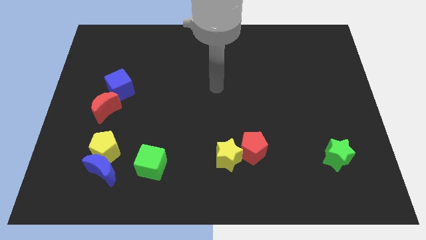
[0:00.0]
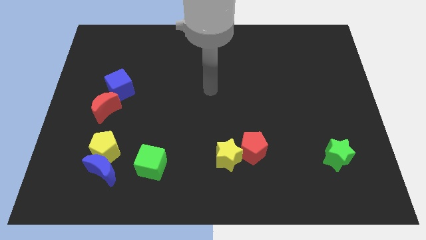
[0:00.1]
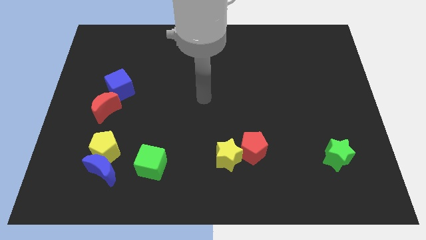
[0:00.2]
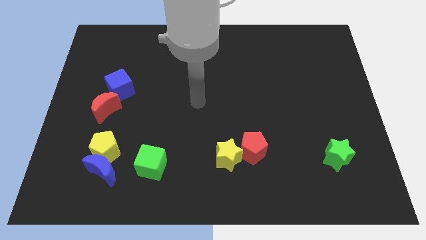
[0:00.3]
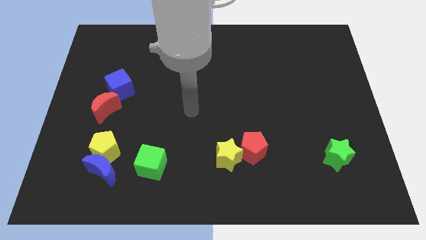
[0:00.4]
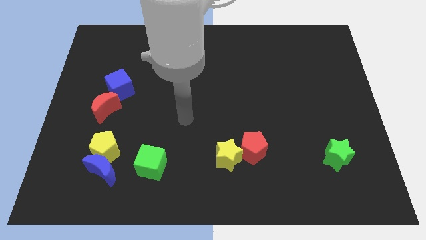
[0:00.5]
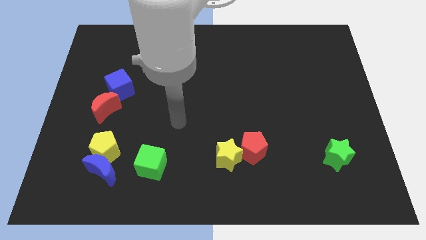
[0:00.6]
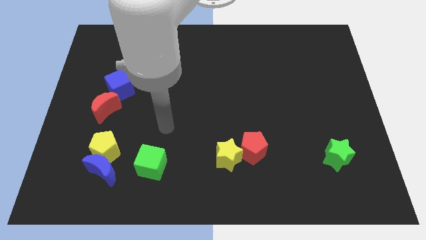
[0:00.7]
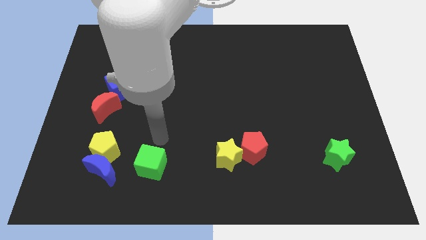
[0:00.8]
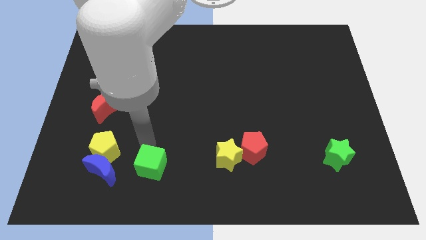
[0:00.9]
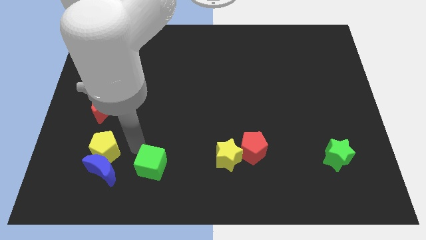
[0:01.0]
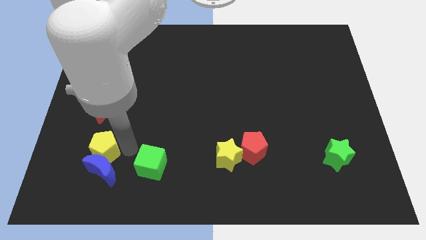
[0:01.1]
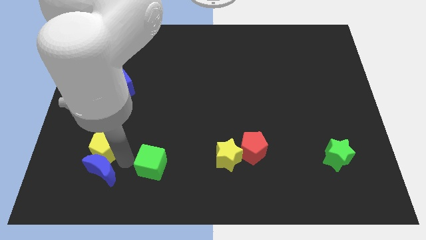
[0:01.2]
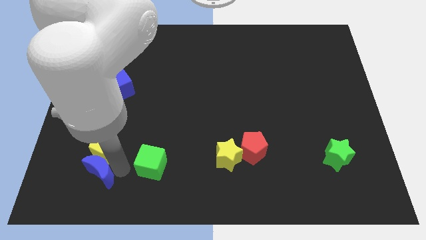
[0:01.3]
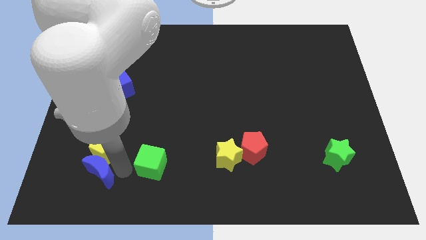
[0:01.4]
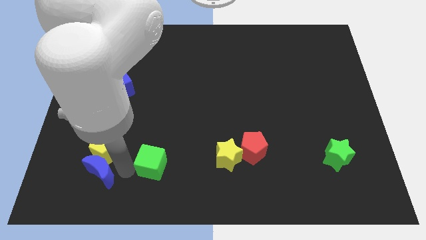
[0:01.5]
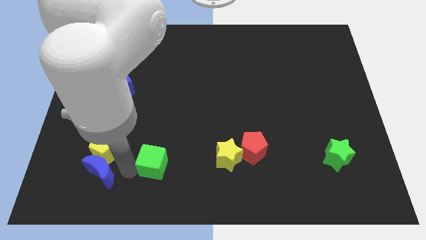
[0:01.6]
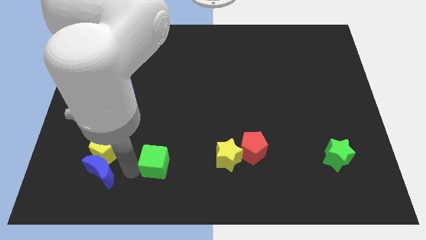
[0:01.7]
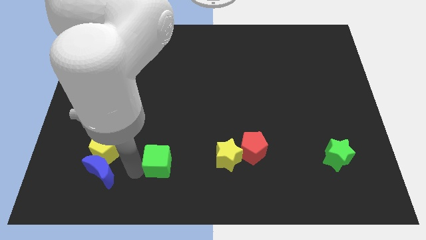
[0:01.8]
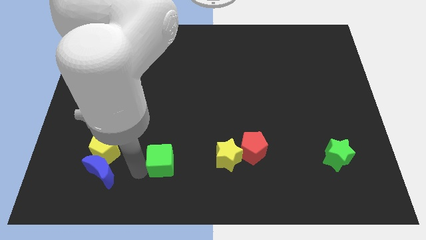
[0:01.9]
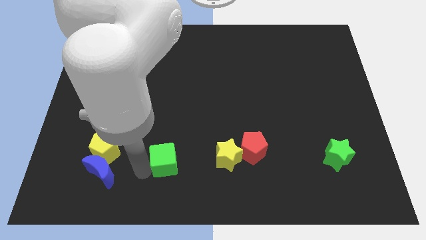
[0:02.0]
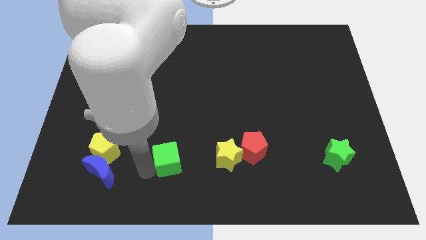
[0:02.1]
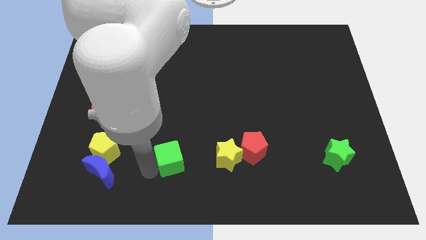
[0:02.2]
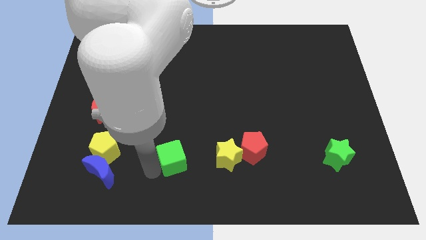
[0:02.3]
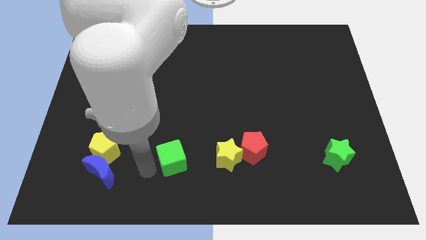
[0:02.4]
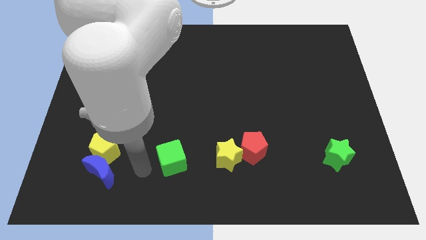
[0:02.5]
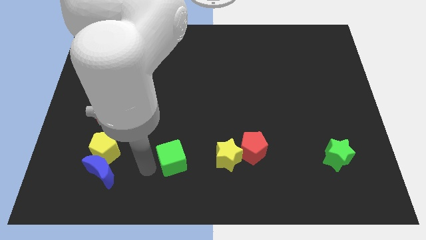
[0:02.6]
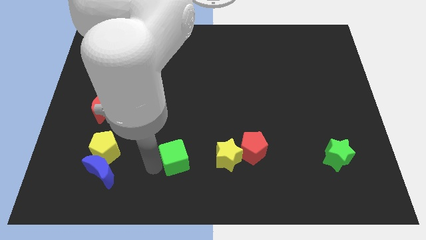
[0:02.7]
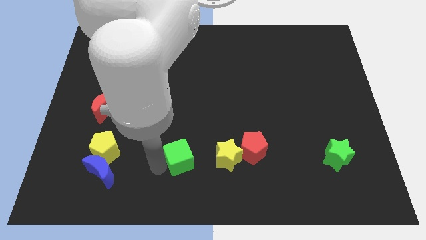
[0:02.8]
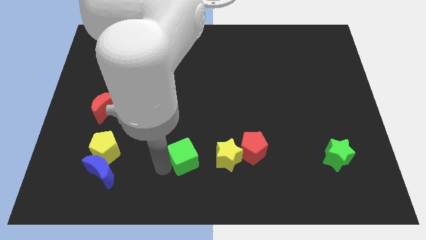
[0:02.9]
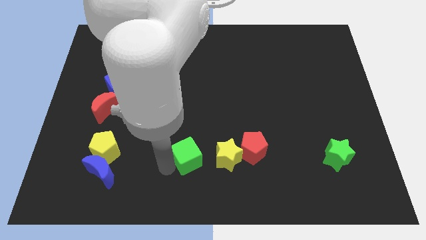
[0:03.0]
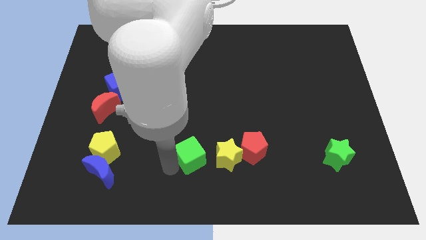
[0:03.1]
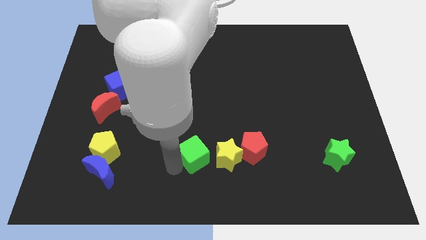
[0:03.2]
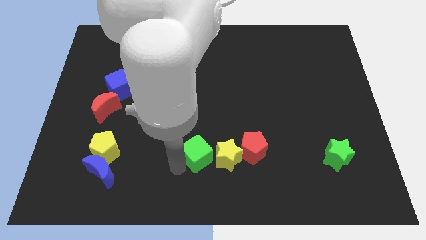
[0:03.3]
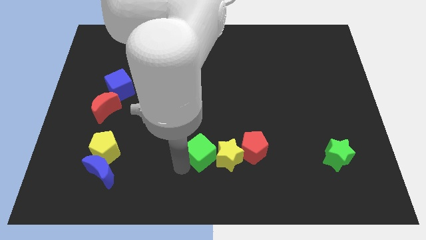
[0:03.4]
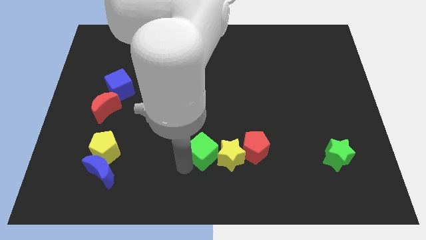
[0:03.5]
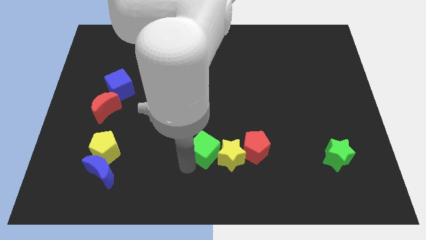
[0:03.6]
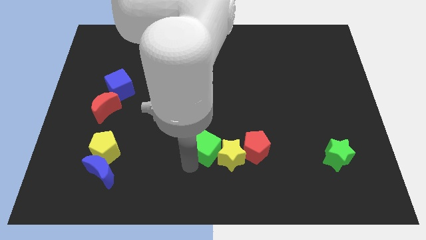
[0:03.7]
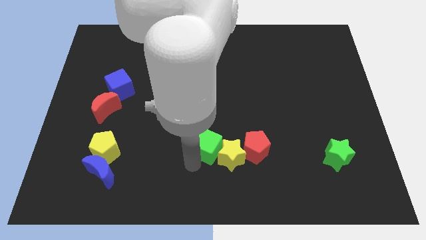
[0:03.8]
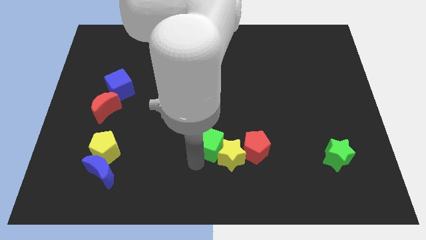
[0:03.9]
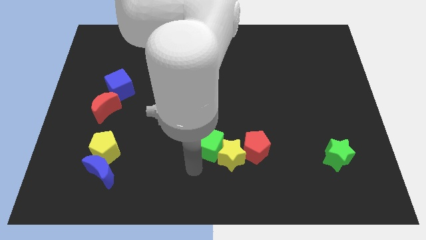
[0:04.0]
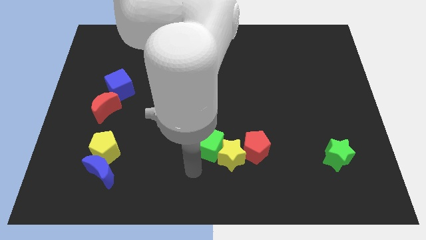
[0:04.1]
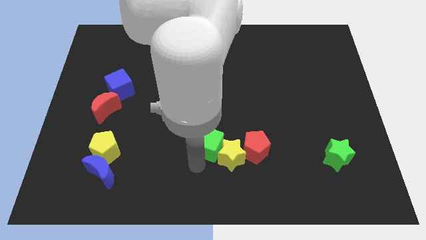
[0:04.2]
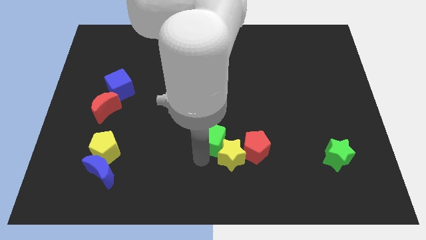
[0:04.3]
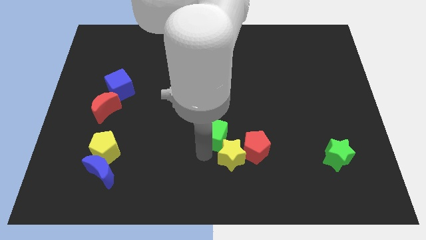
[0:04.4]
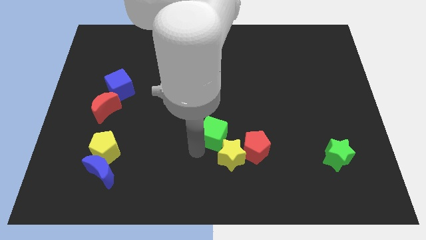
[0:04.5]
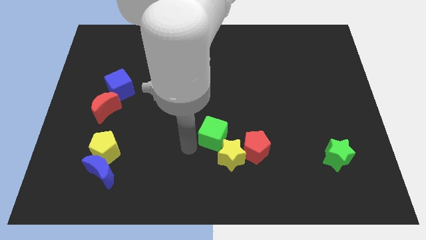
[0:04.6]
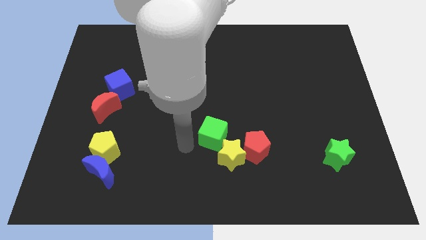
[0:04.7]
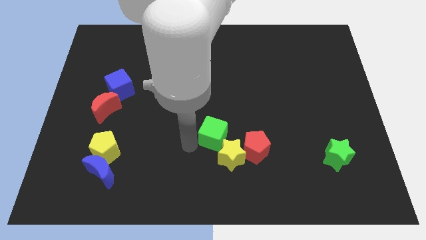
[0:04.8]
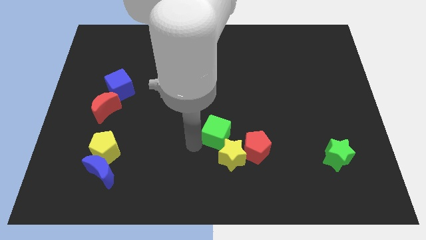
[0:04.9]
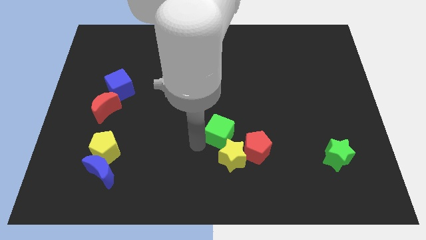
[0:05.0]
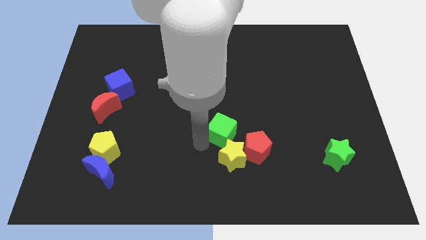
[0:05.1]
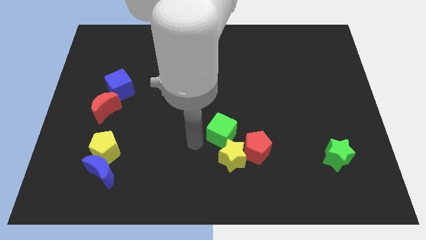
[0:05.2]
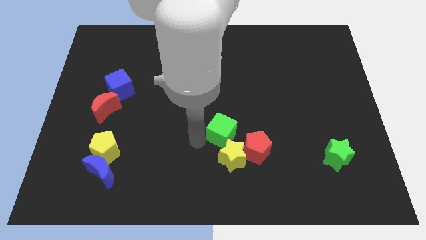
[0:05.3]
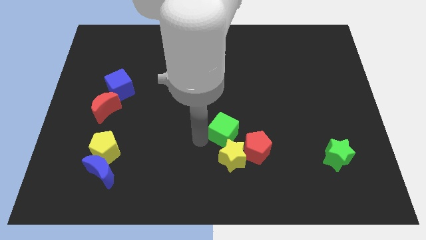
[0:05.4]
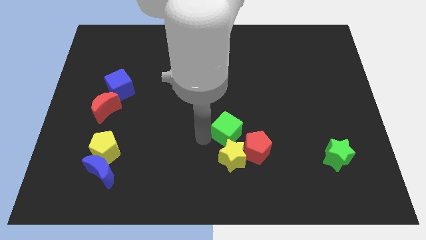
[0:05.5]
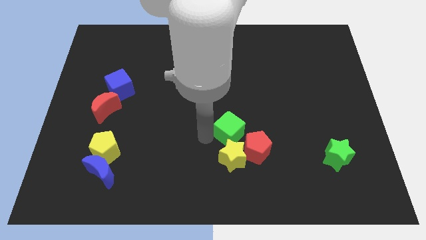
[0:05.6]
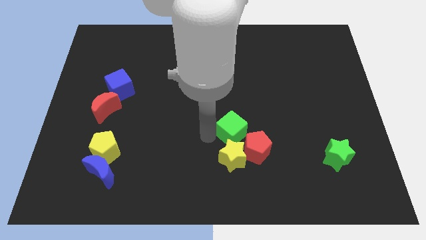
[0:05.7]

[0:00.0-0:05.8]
push the green cube to the top right side of the yellow star

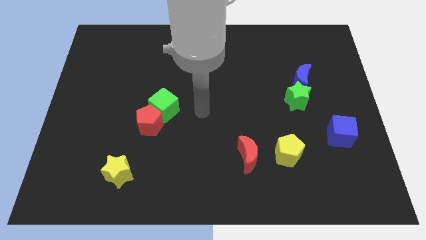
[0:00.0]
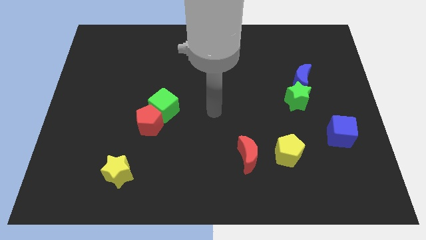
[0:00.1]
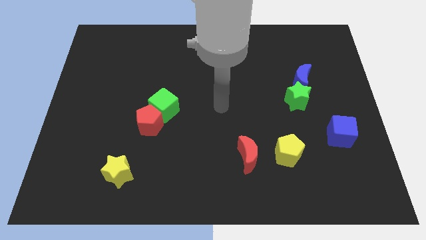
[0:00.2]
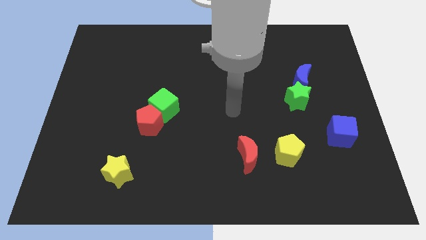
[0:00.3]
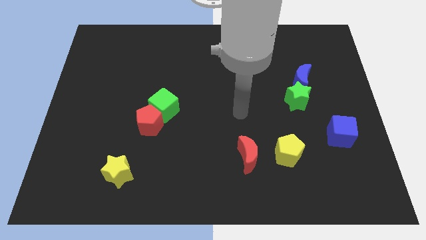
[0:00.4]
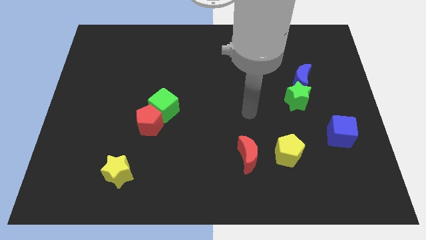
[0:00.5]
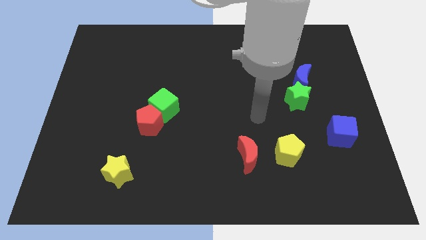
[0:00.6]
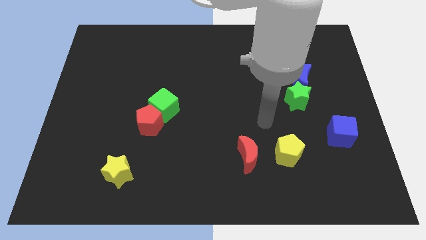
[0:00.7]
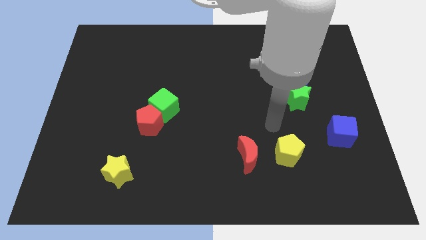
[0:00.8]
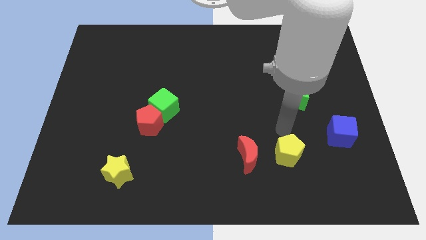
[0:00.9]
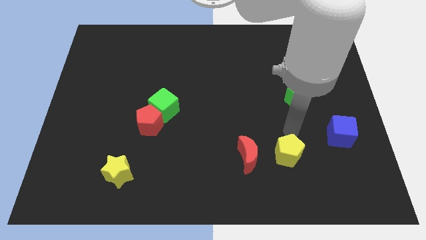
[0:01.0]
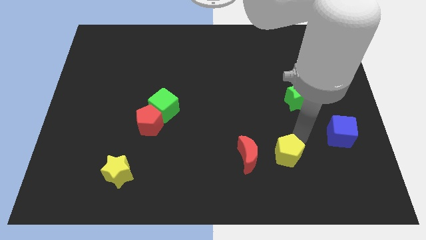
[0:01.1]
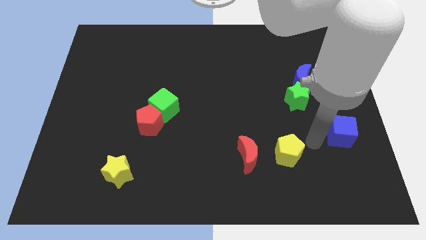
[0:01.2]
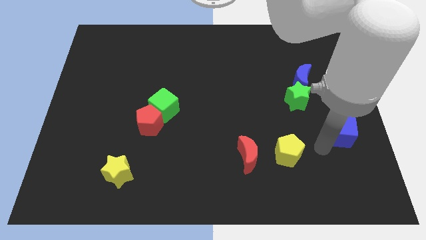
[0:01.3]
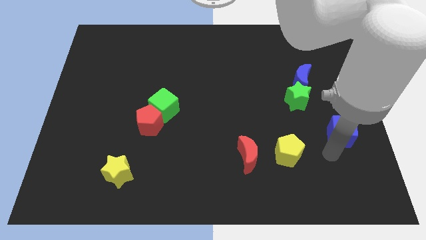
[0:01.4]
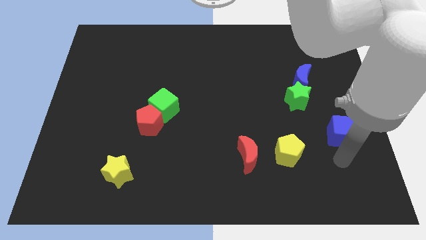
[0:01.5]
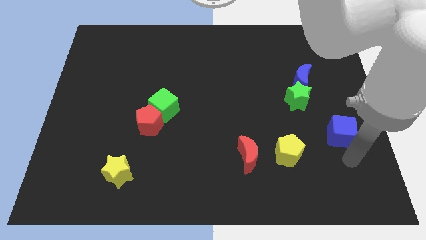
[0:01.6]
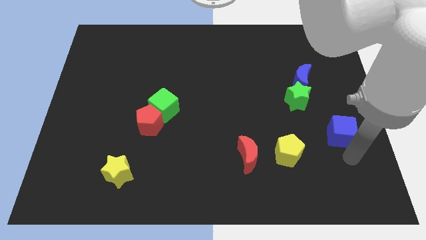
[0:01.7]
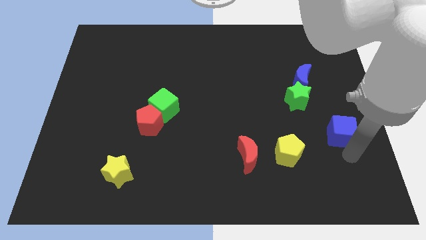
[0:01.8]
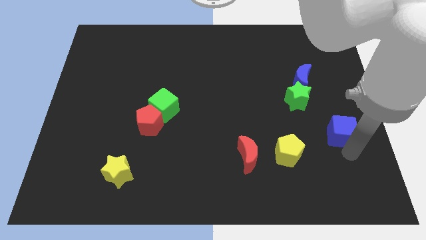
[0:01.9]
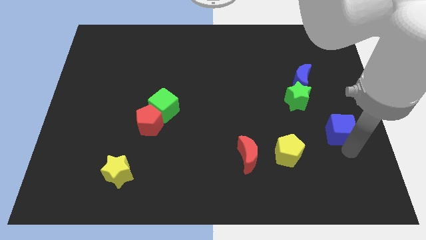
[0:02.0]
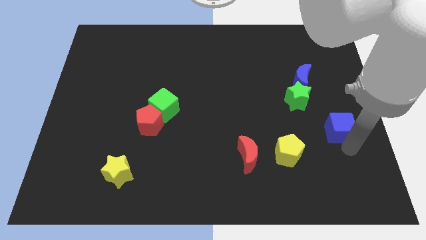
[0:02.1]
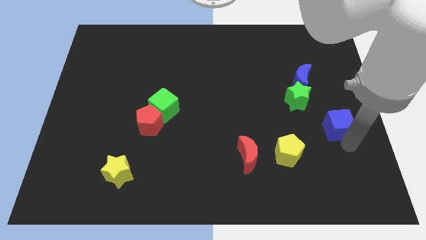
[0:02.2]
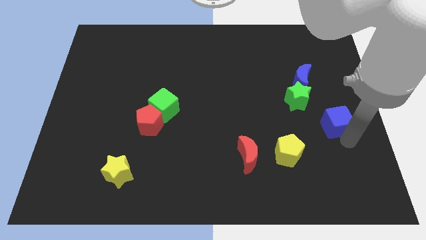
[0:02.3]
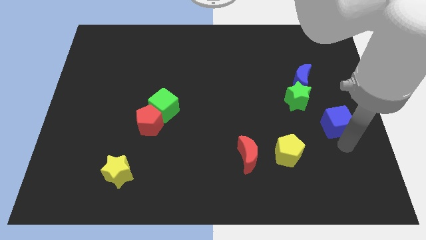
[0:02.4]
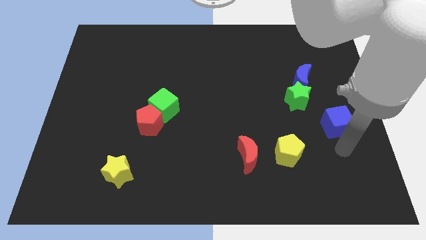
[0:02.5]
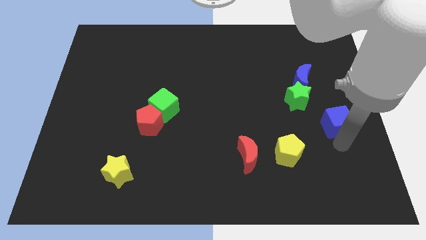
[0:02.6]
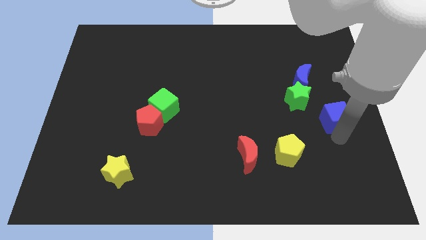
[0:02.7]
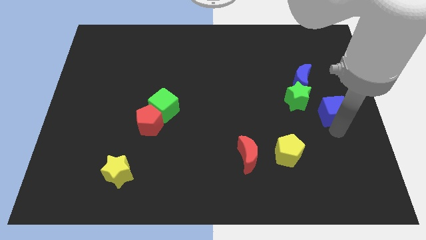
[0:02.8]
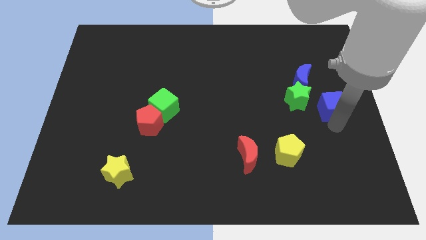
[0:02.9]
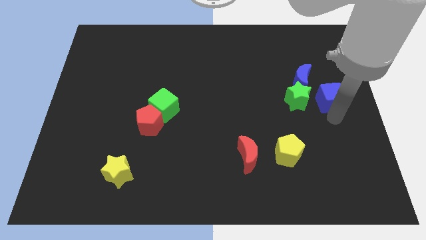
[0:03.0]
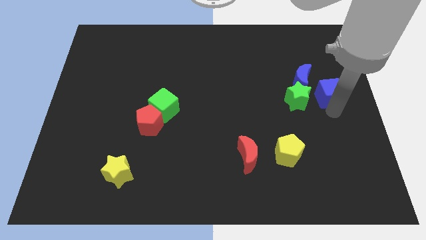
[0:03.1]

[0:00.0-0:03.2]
push the blue cube to the top right of the green star
